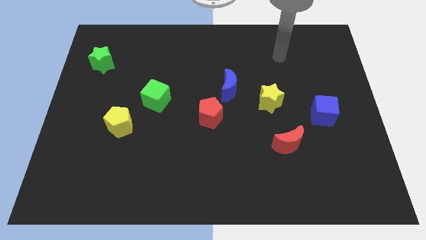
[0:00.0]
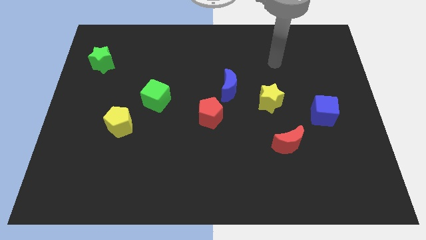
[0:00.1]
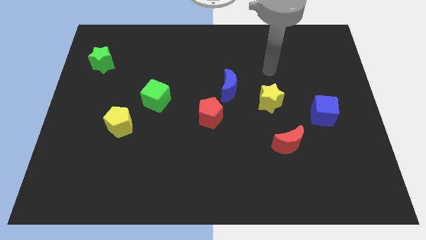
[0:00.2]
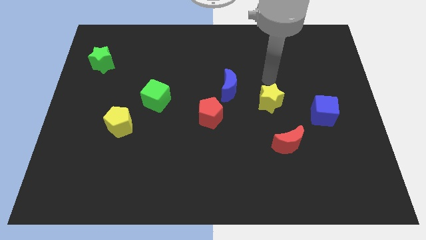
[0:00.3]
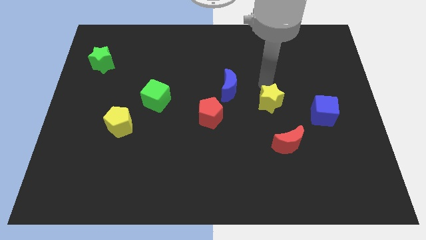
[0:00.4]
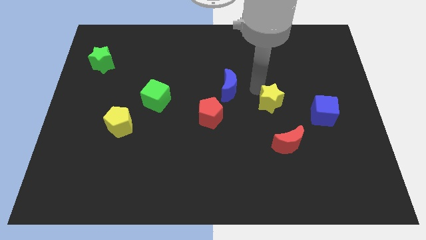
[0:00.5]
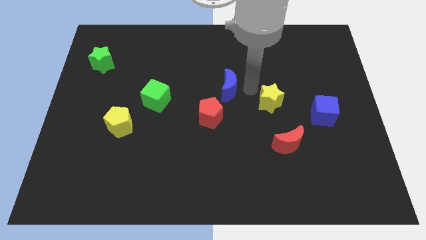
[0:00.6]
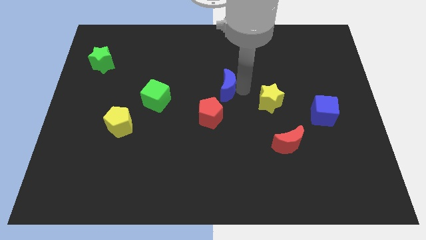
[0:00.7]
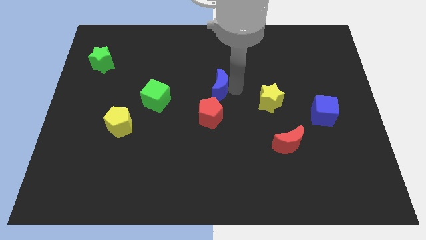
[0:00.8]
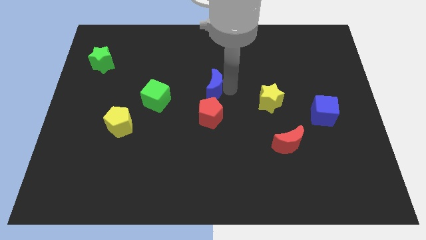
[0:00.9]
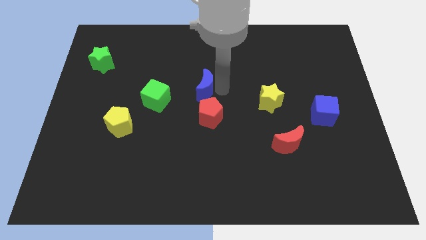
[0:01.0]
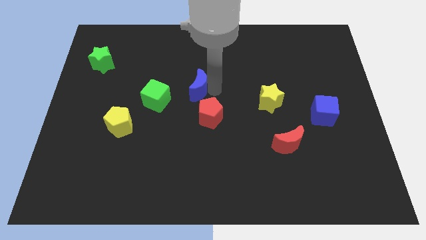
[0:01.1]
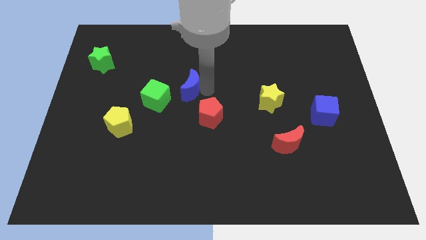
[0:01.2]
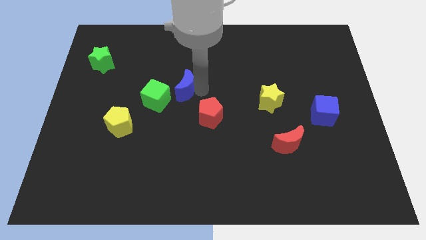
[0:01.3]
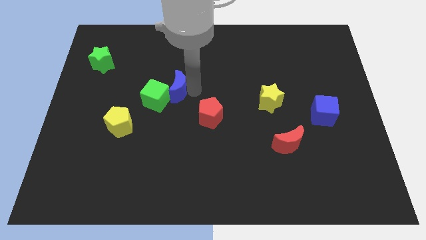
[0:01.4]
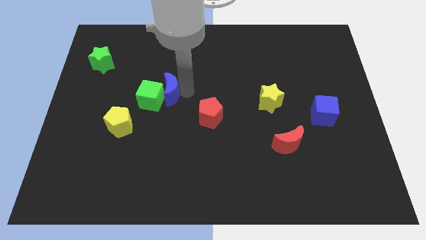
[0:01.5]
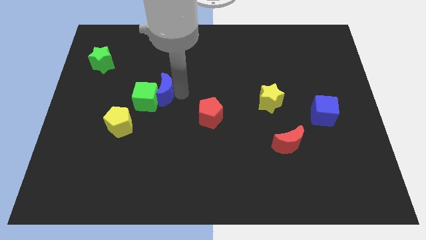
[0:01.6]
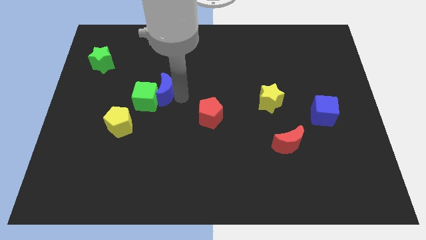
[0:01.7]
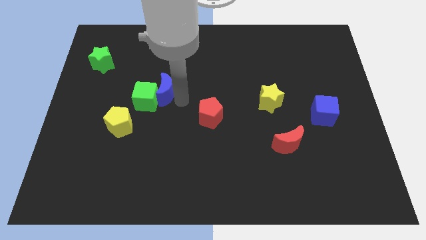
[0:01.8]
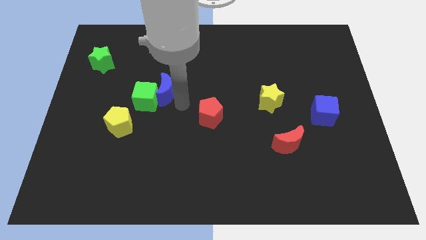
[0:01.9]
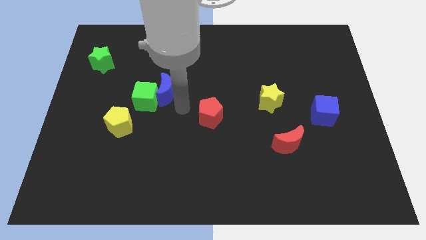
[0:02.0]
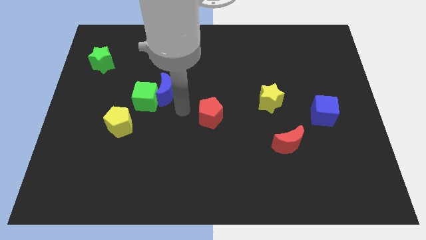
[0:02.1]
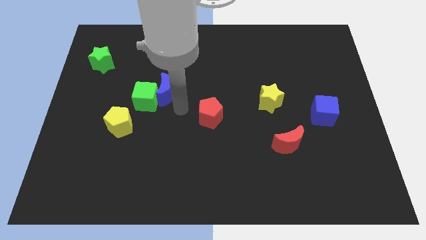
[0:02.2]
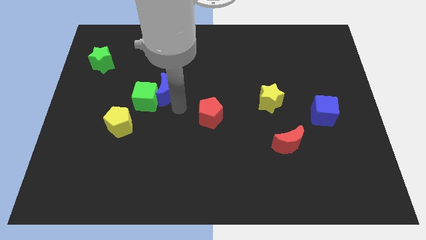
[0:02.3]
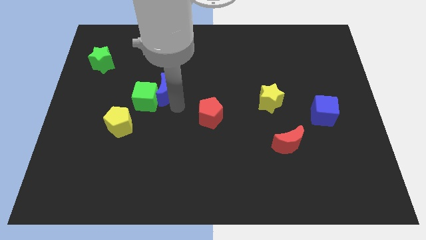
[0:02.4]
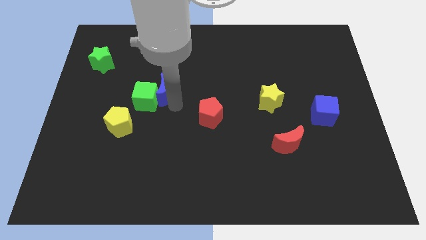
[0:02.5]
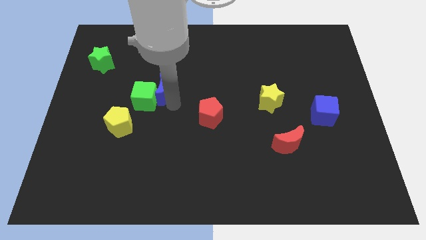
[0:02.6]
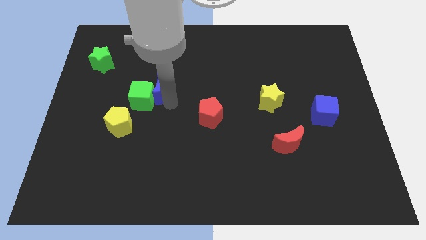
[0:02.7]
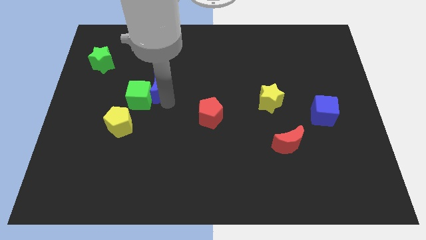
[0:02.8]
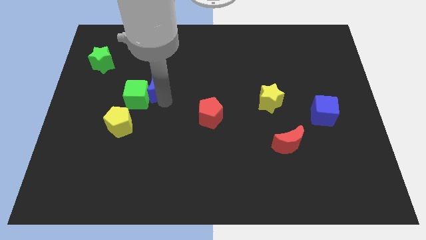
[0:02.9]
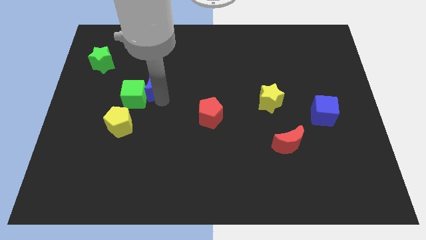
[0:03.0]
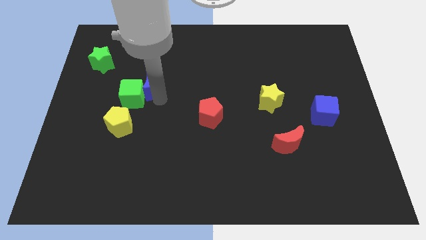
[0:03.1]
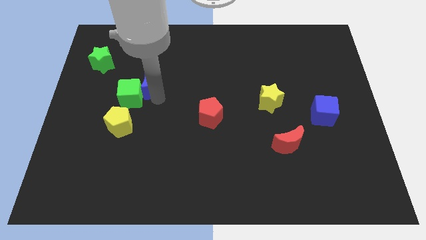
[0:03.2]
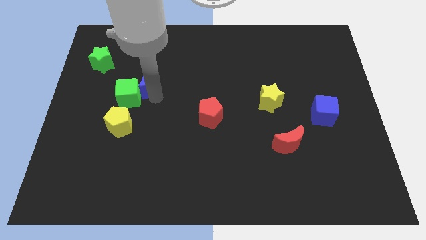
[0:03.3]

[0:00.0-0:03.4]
push the blue moon left

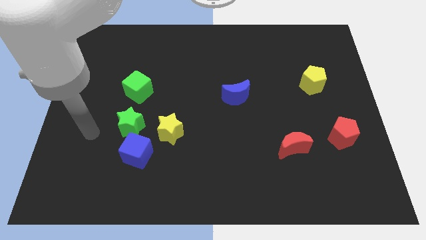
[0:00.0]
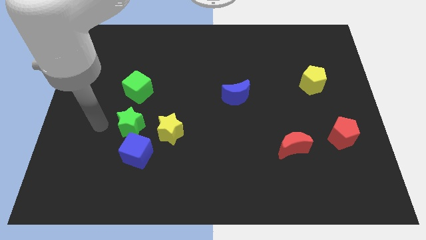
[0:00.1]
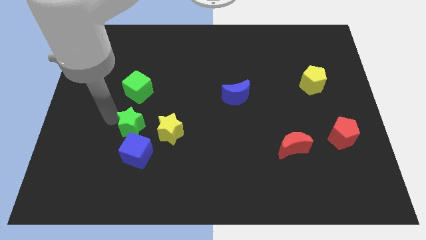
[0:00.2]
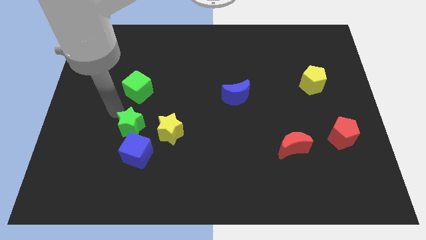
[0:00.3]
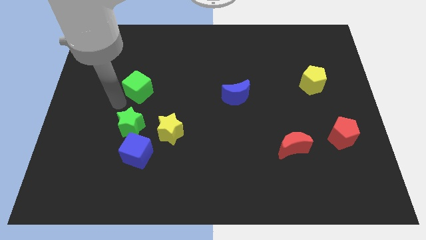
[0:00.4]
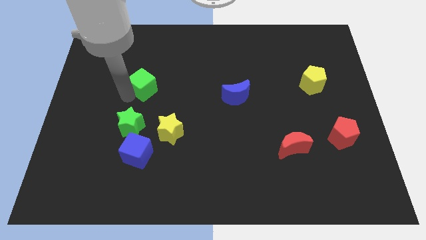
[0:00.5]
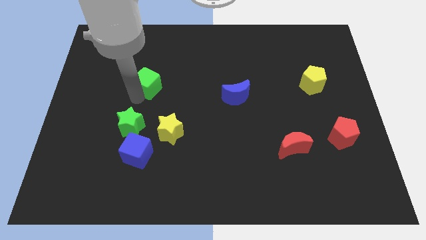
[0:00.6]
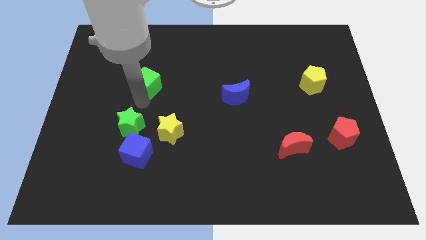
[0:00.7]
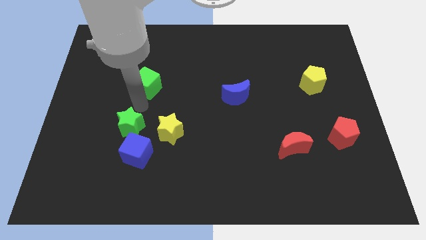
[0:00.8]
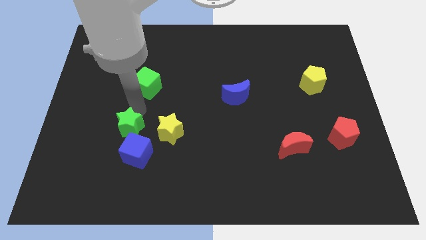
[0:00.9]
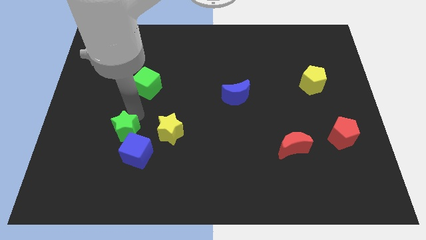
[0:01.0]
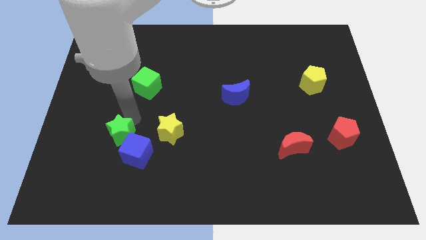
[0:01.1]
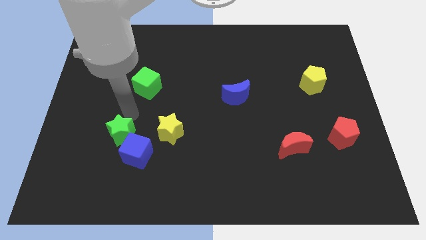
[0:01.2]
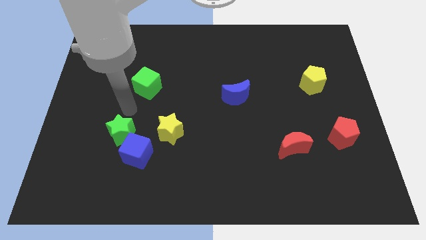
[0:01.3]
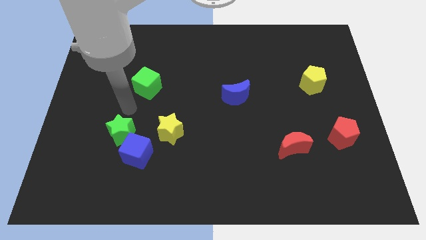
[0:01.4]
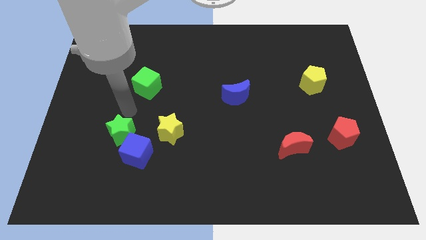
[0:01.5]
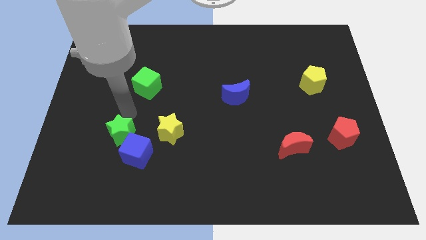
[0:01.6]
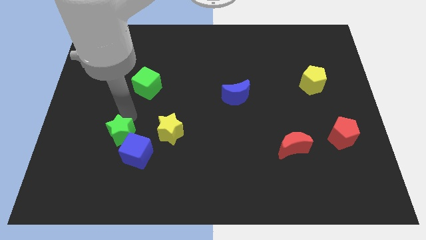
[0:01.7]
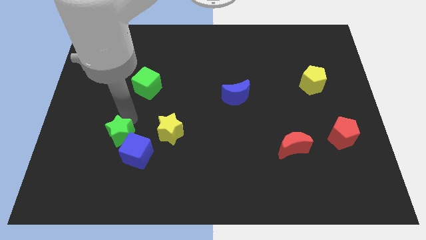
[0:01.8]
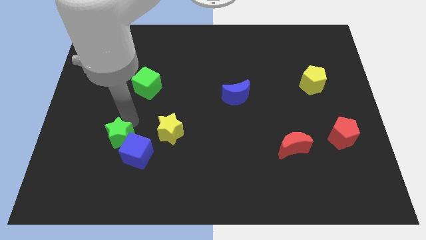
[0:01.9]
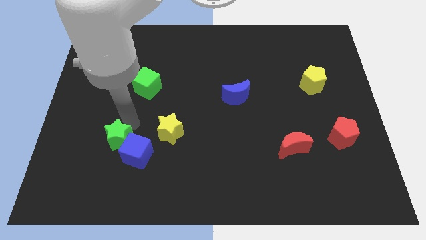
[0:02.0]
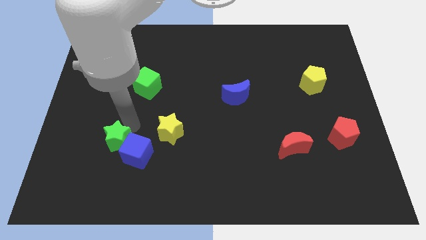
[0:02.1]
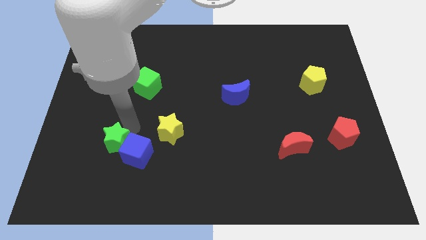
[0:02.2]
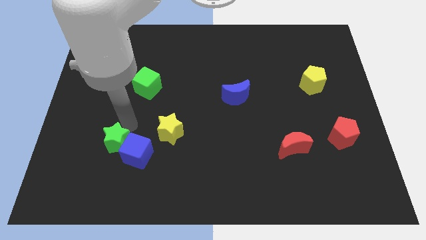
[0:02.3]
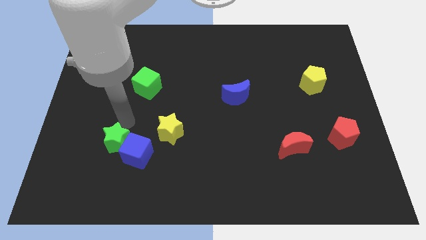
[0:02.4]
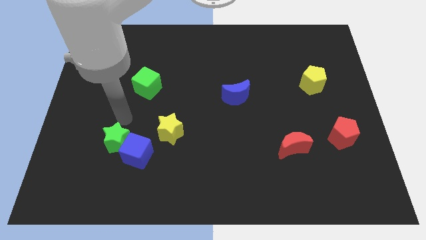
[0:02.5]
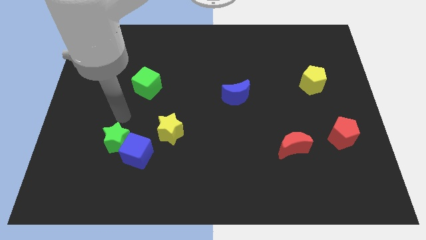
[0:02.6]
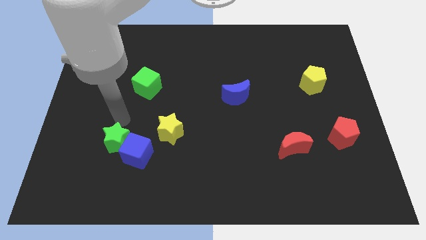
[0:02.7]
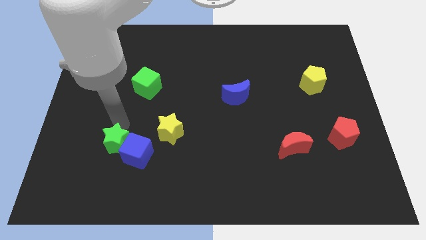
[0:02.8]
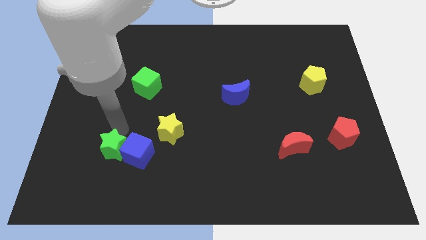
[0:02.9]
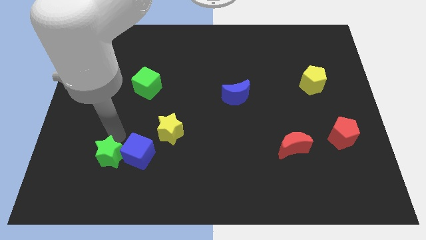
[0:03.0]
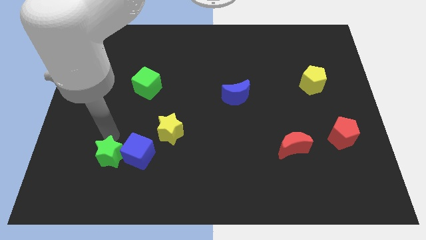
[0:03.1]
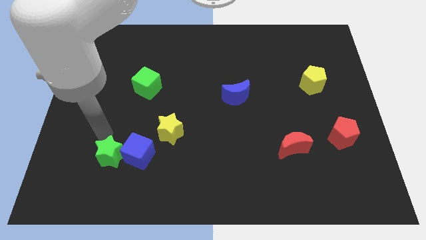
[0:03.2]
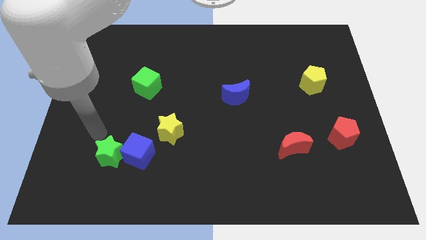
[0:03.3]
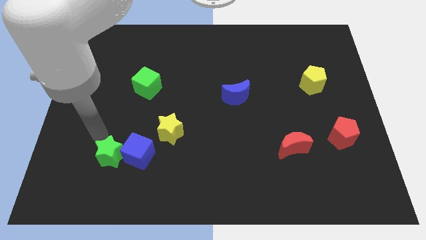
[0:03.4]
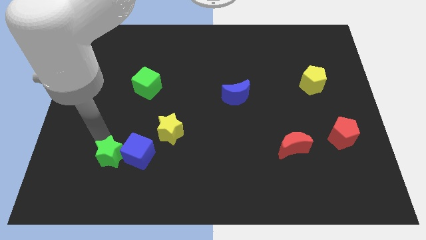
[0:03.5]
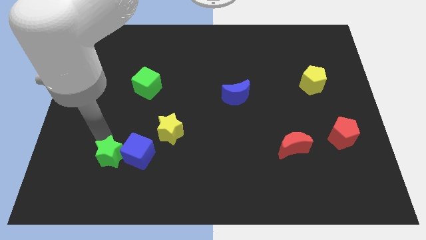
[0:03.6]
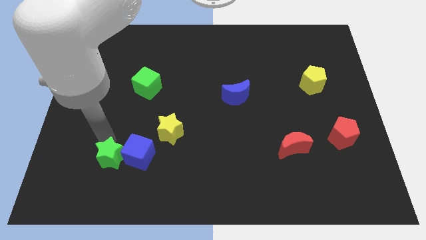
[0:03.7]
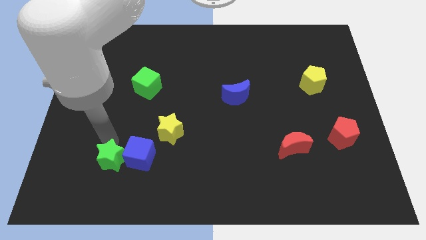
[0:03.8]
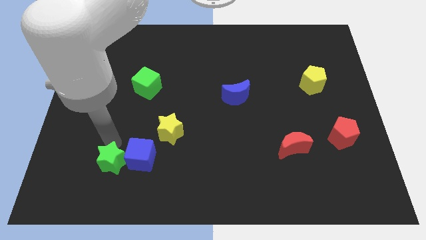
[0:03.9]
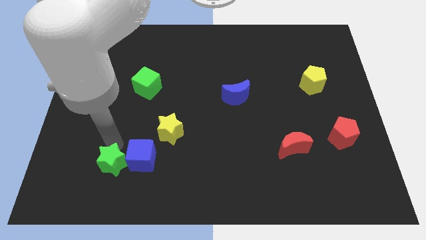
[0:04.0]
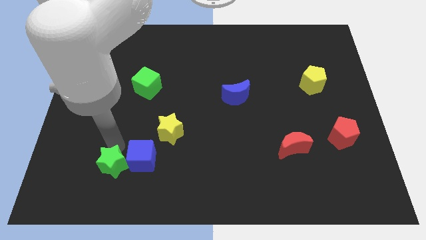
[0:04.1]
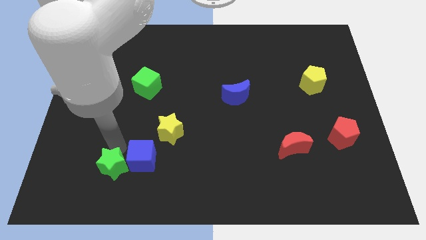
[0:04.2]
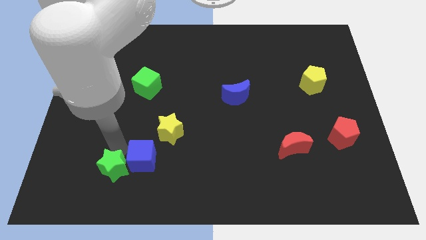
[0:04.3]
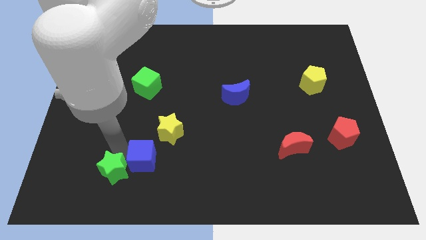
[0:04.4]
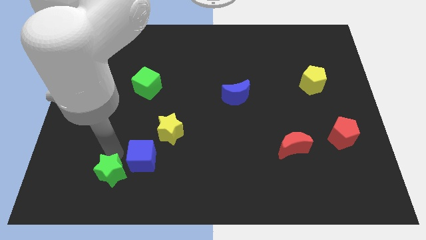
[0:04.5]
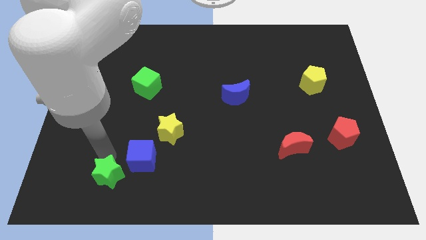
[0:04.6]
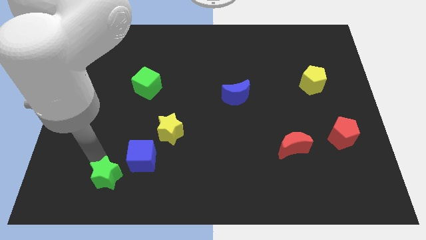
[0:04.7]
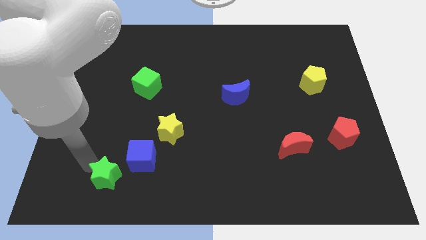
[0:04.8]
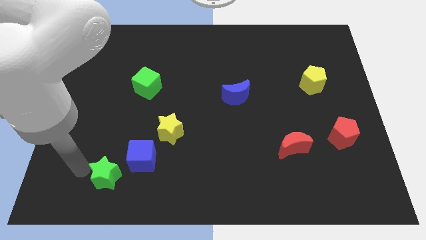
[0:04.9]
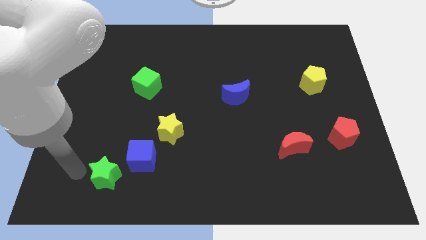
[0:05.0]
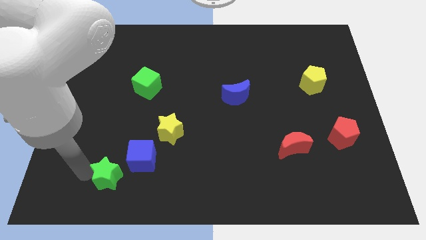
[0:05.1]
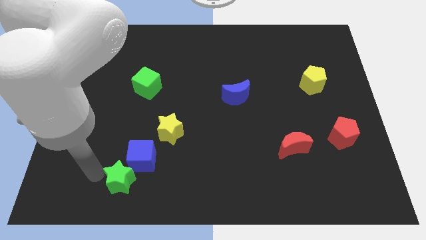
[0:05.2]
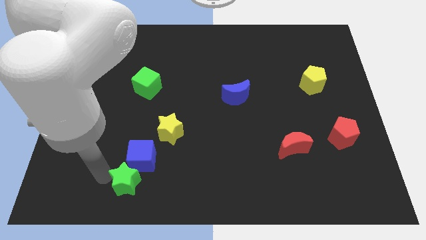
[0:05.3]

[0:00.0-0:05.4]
push the green star somewhat down and to the right
